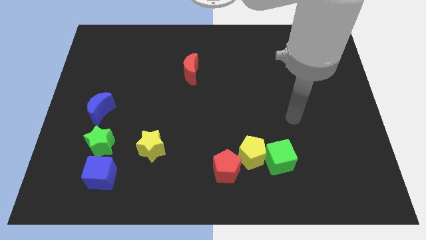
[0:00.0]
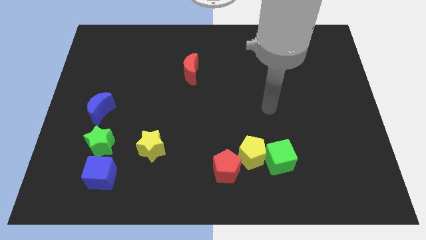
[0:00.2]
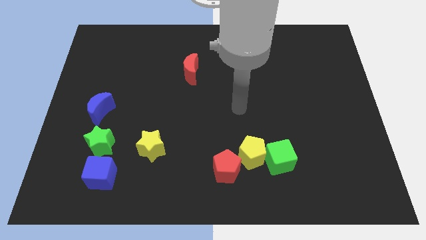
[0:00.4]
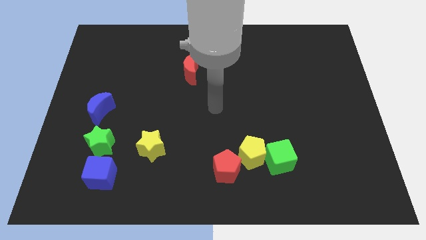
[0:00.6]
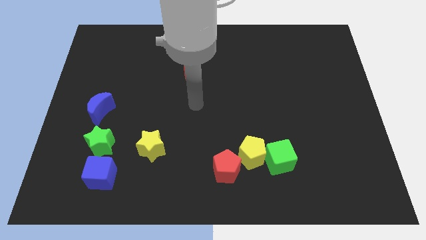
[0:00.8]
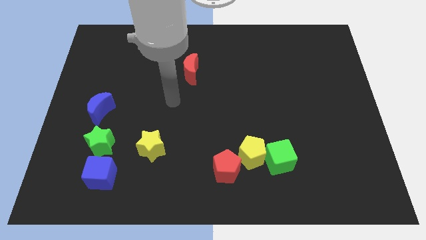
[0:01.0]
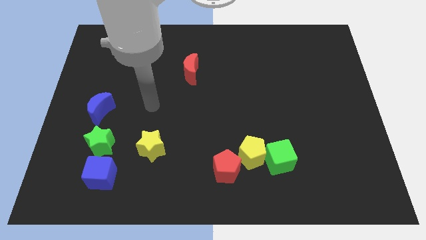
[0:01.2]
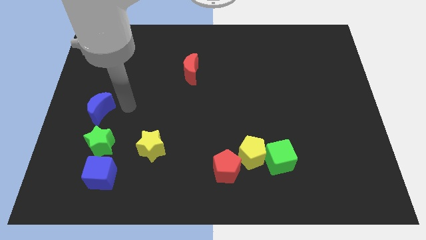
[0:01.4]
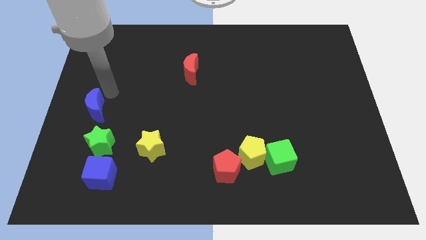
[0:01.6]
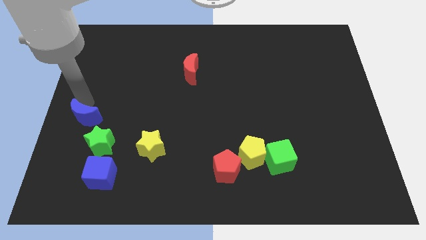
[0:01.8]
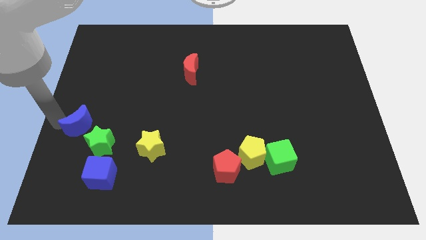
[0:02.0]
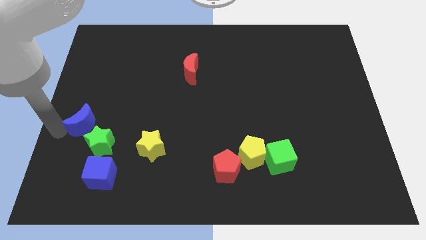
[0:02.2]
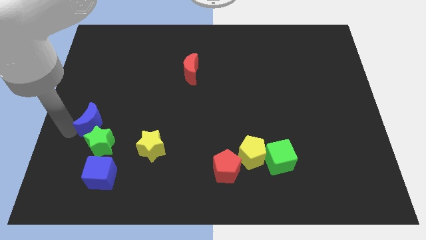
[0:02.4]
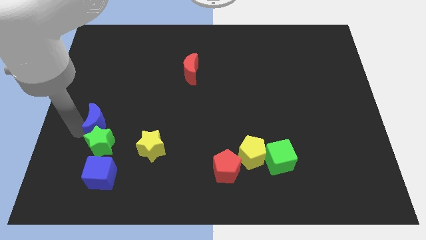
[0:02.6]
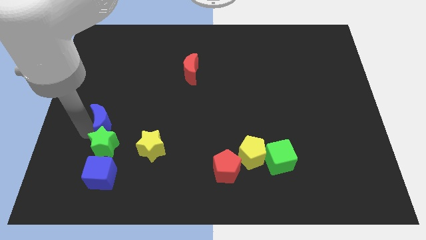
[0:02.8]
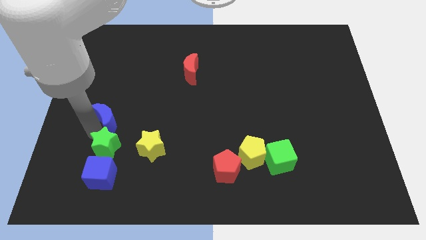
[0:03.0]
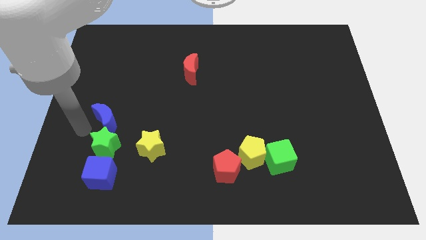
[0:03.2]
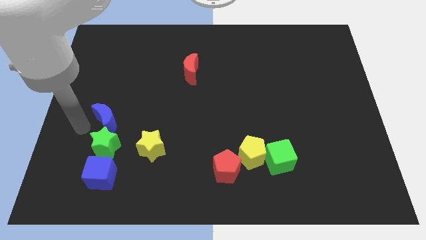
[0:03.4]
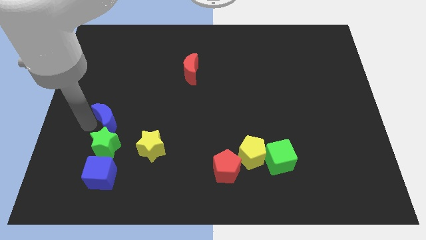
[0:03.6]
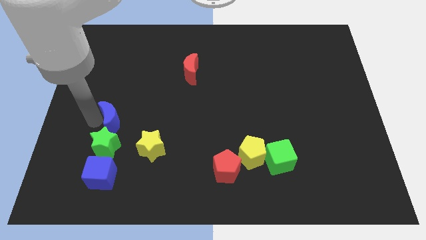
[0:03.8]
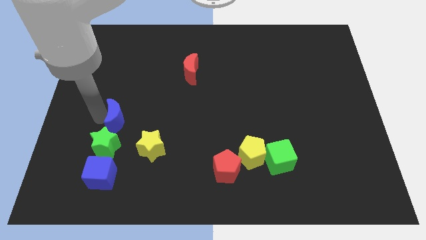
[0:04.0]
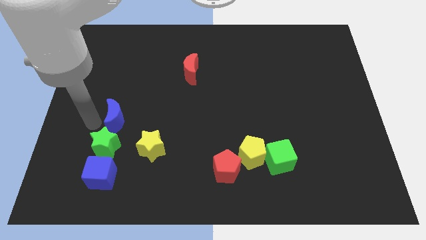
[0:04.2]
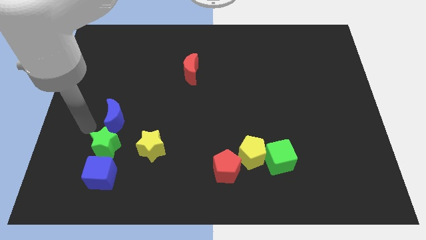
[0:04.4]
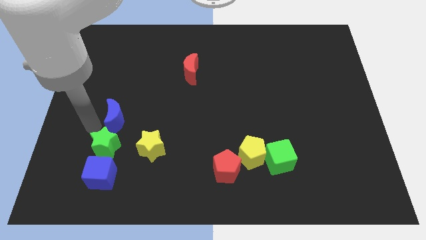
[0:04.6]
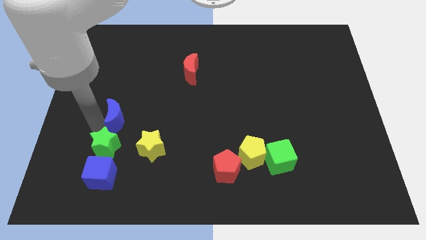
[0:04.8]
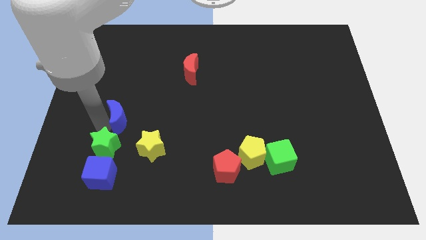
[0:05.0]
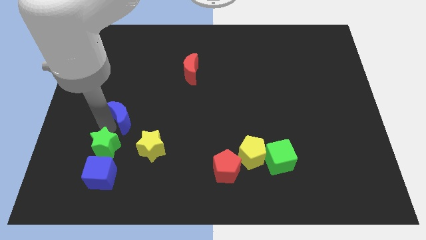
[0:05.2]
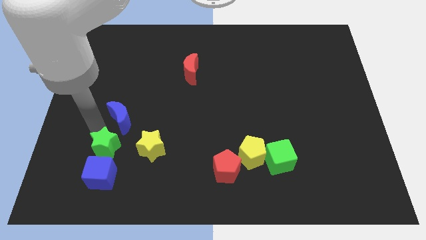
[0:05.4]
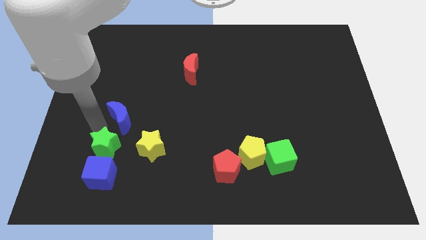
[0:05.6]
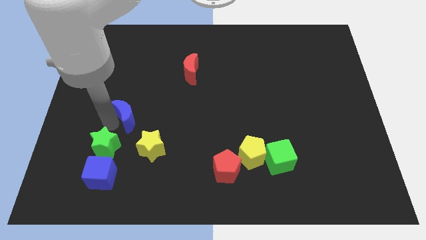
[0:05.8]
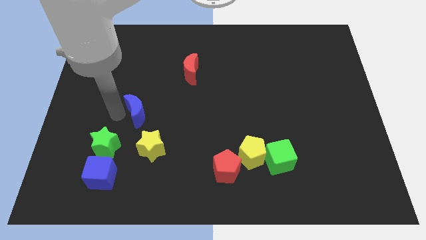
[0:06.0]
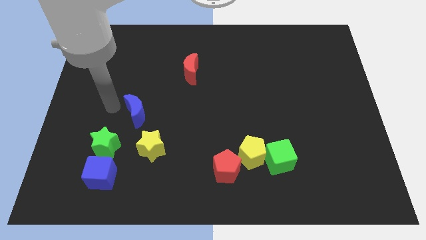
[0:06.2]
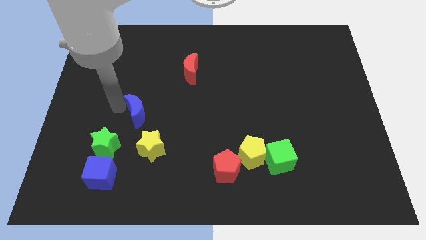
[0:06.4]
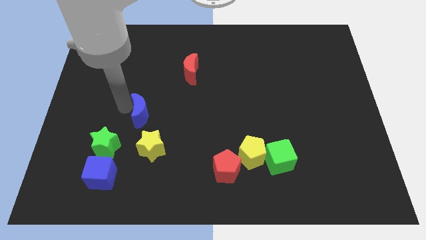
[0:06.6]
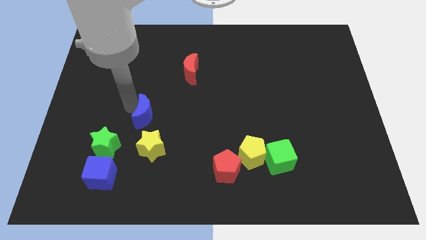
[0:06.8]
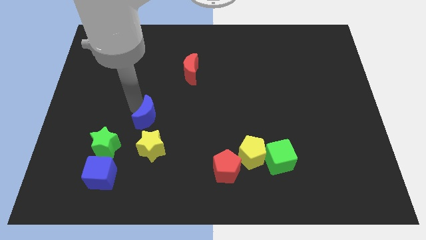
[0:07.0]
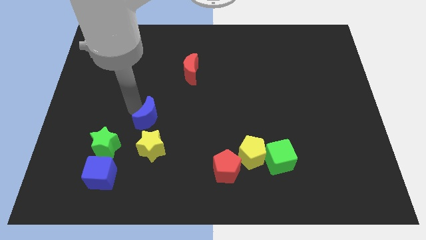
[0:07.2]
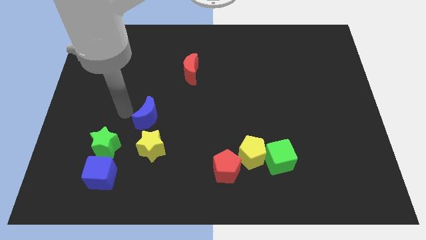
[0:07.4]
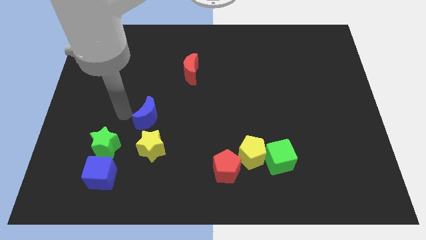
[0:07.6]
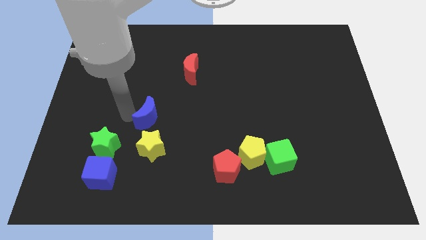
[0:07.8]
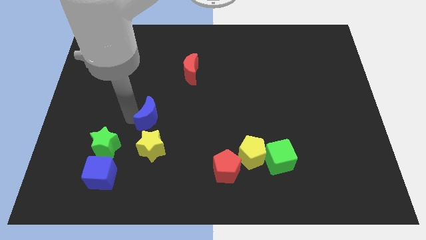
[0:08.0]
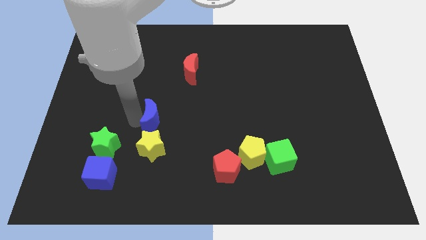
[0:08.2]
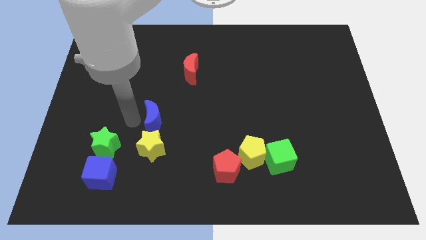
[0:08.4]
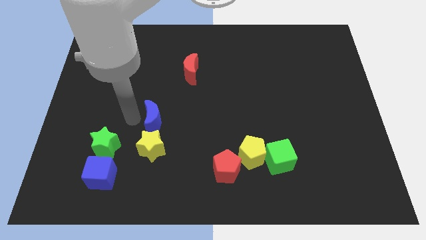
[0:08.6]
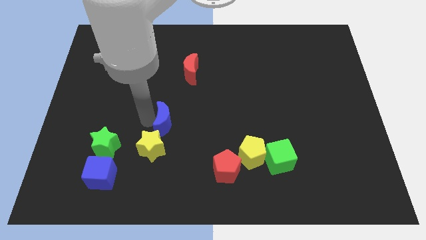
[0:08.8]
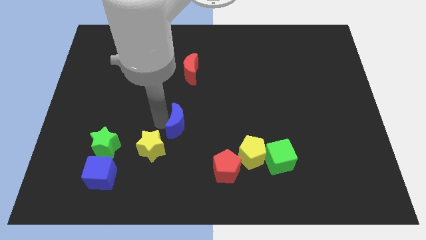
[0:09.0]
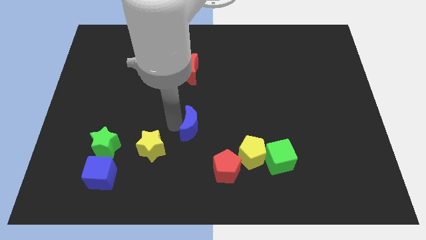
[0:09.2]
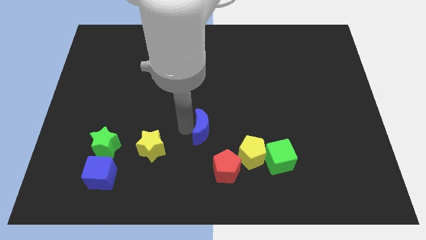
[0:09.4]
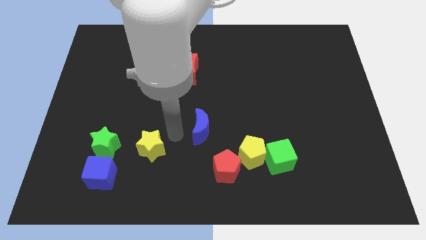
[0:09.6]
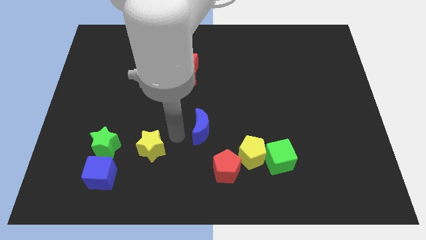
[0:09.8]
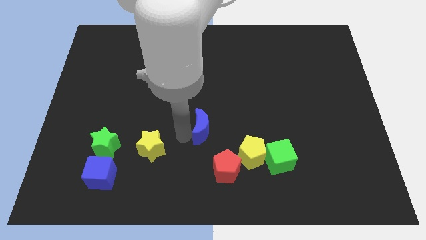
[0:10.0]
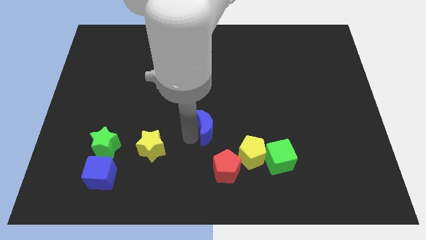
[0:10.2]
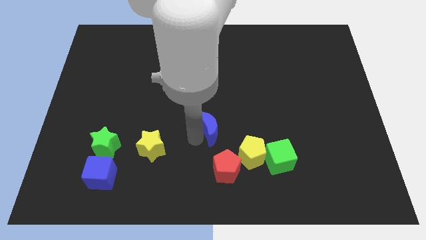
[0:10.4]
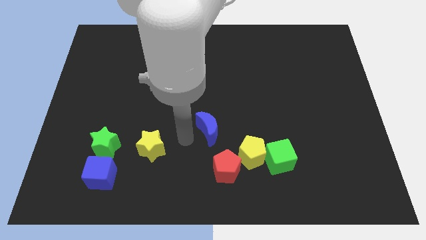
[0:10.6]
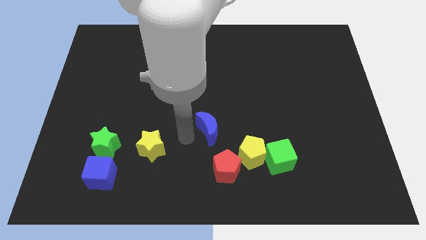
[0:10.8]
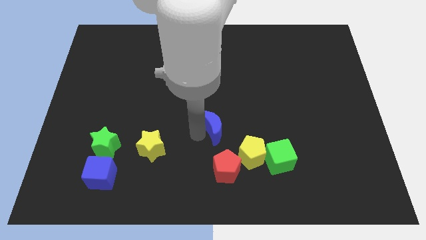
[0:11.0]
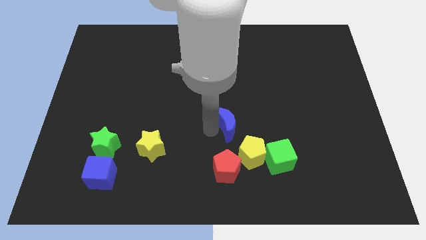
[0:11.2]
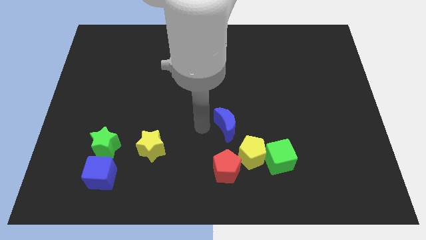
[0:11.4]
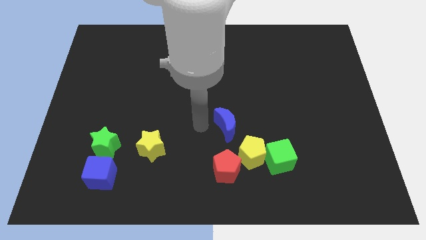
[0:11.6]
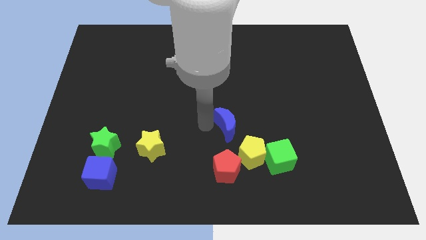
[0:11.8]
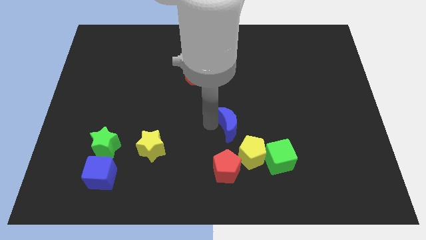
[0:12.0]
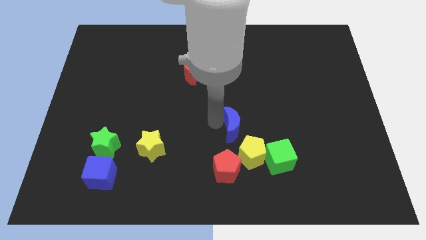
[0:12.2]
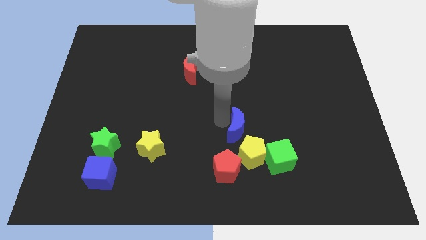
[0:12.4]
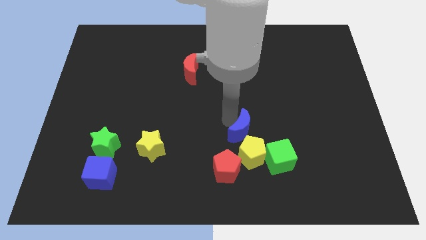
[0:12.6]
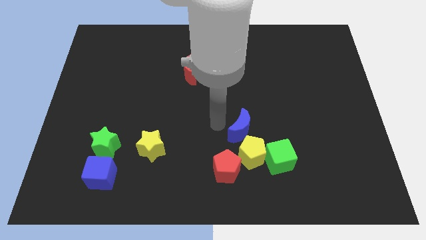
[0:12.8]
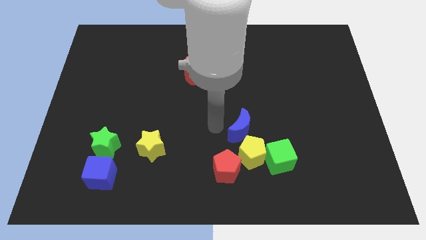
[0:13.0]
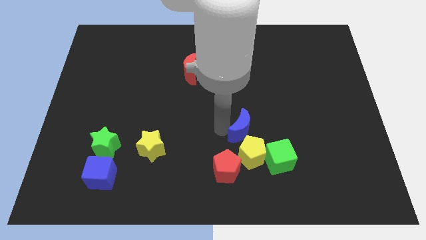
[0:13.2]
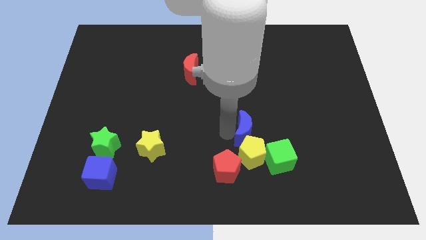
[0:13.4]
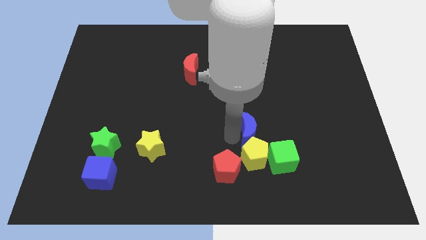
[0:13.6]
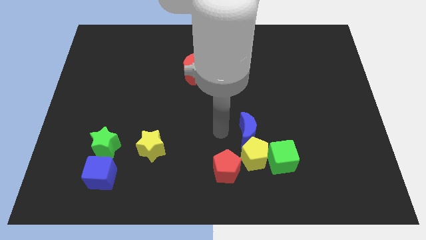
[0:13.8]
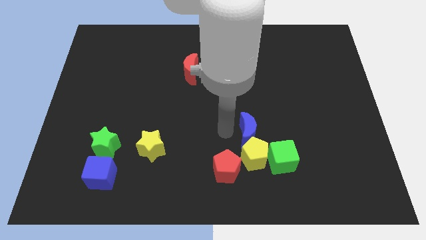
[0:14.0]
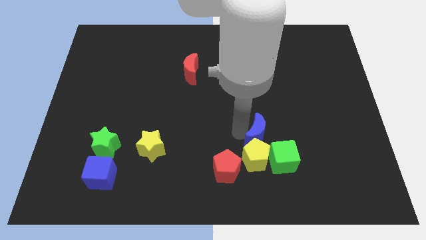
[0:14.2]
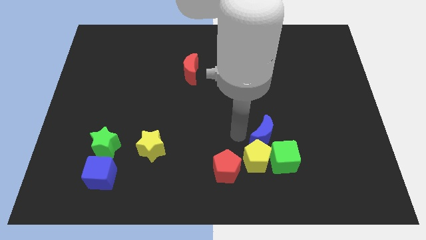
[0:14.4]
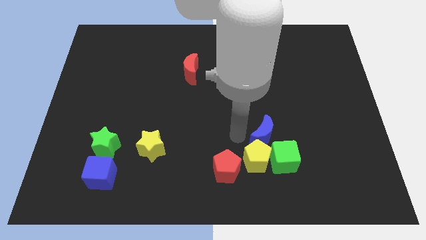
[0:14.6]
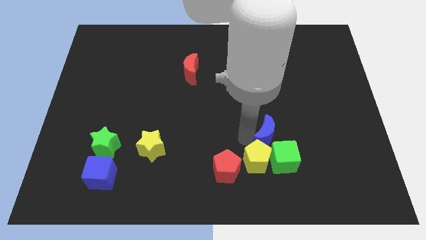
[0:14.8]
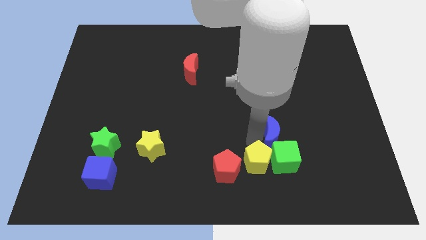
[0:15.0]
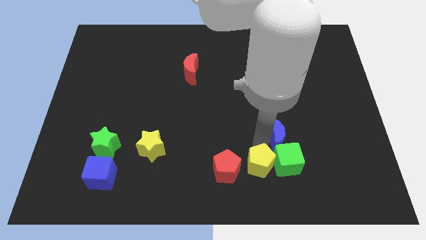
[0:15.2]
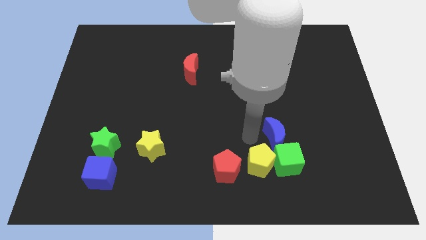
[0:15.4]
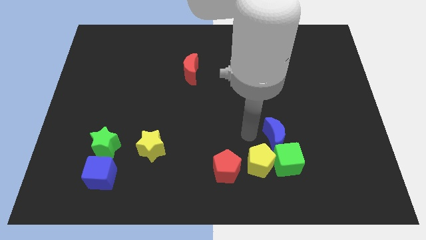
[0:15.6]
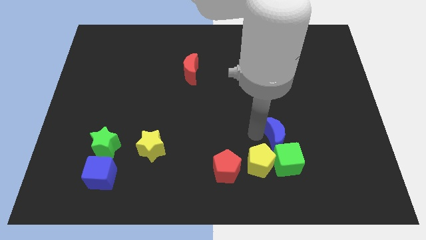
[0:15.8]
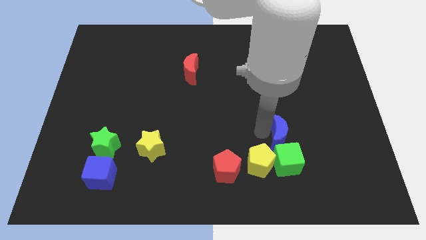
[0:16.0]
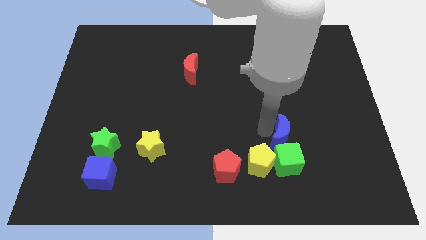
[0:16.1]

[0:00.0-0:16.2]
push the blue moon diagonally up and to the right of the green cube
